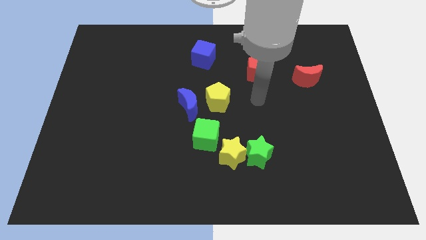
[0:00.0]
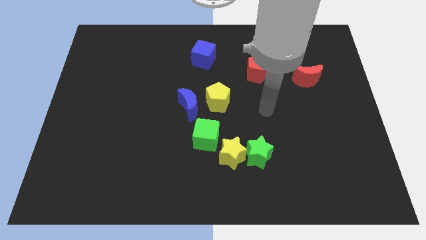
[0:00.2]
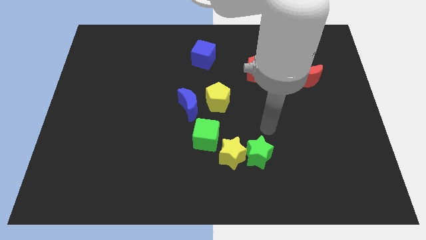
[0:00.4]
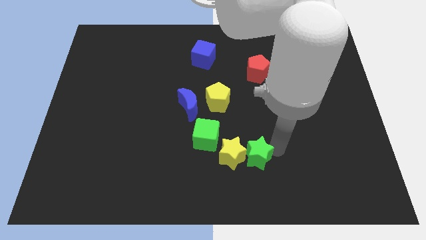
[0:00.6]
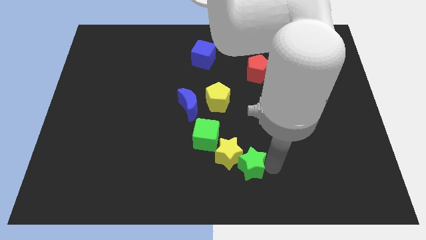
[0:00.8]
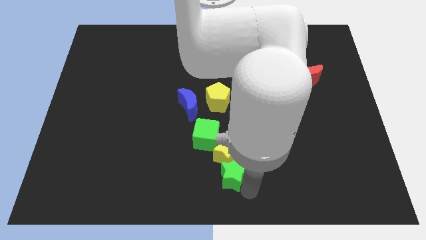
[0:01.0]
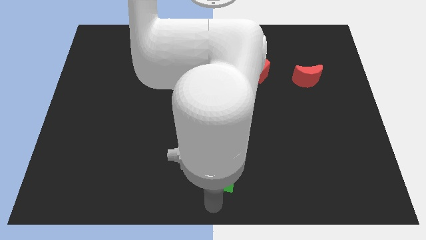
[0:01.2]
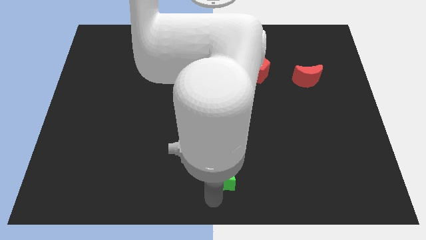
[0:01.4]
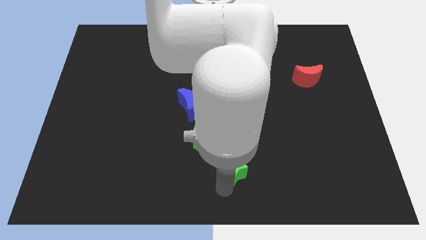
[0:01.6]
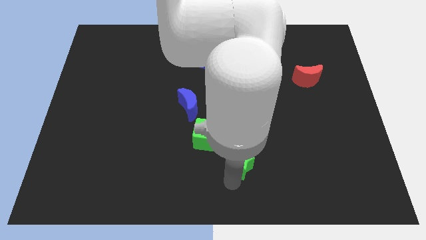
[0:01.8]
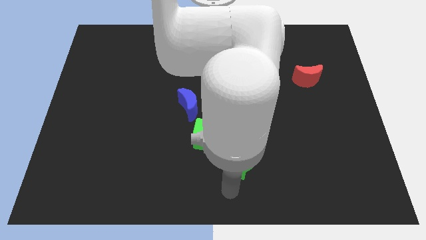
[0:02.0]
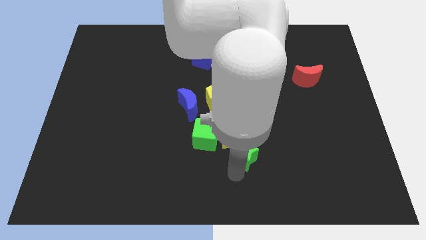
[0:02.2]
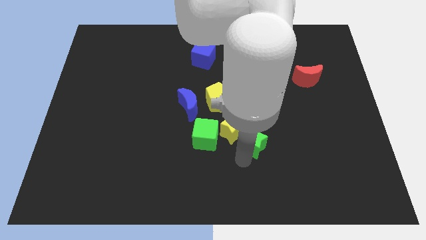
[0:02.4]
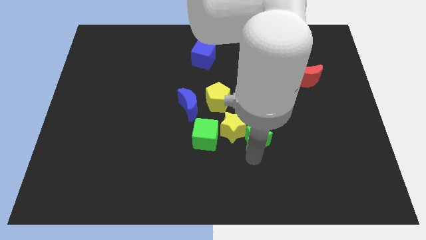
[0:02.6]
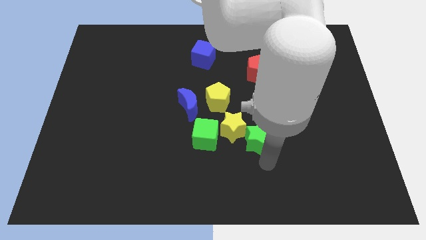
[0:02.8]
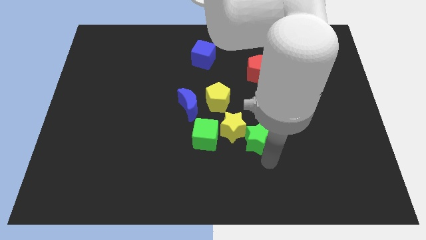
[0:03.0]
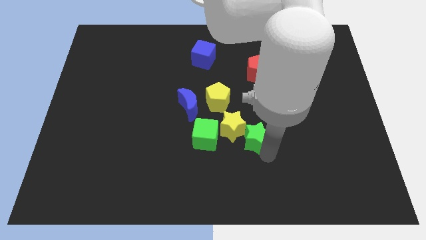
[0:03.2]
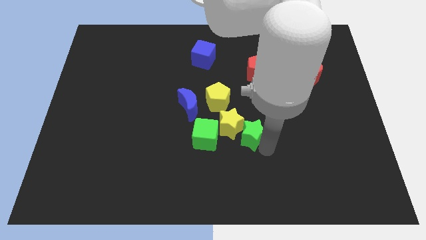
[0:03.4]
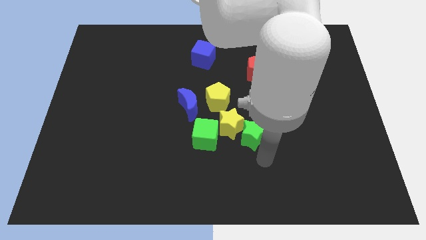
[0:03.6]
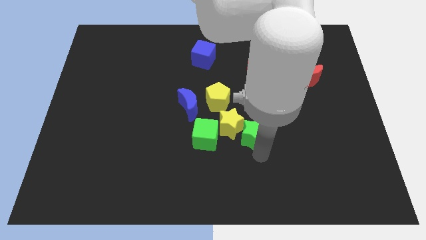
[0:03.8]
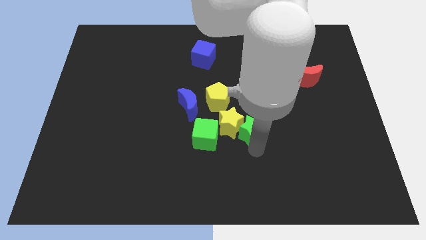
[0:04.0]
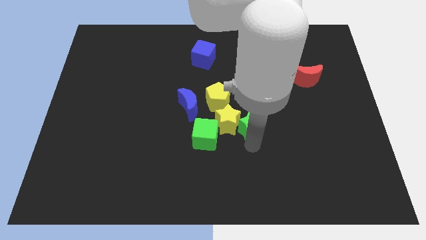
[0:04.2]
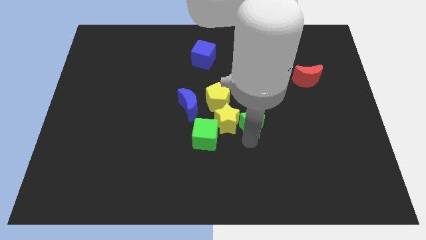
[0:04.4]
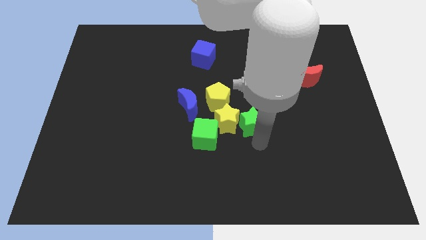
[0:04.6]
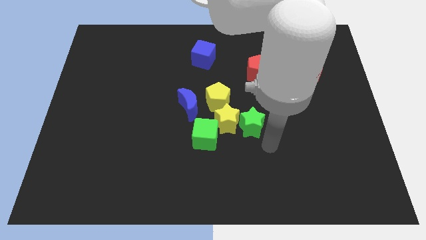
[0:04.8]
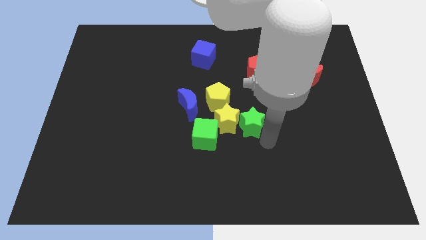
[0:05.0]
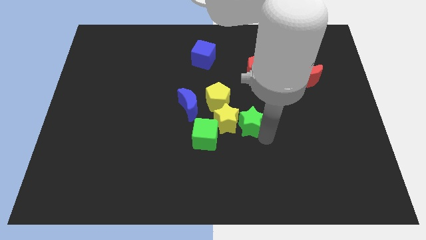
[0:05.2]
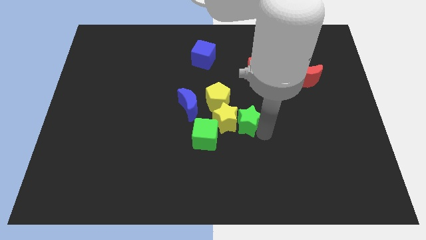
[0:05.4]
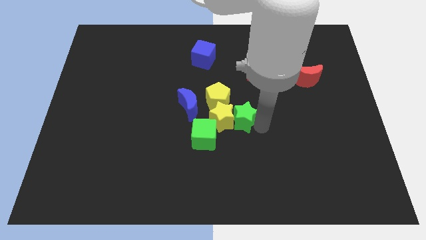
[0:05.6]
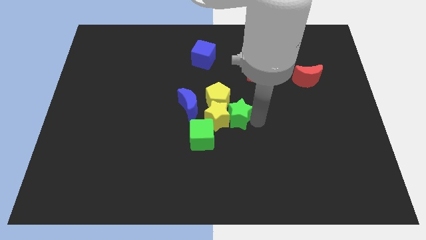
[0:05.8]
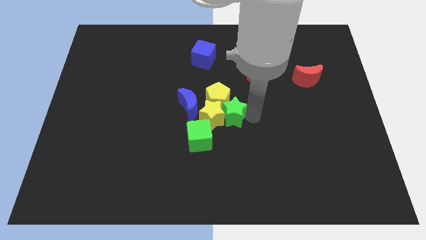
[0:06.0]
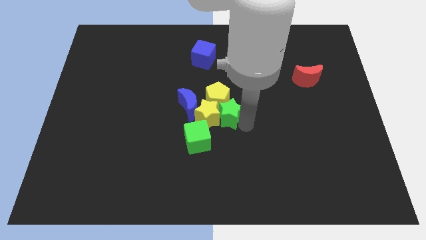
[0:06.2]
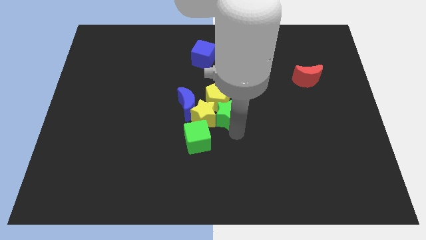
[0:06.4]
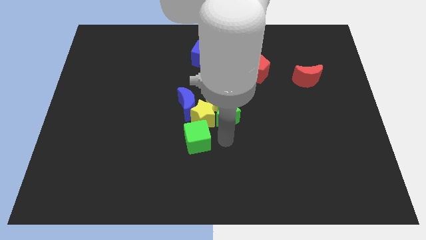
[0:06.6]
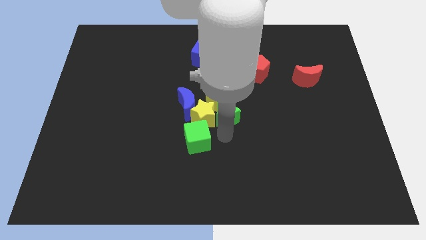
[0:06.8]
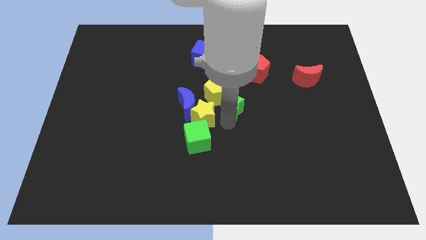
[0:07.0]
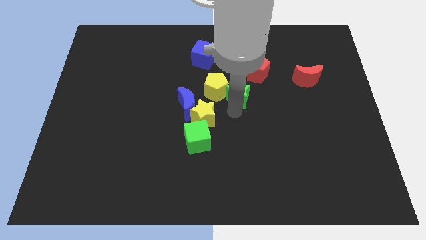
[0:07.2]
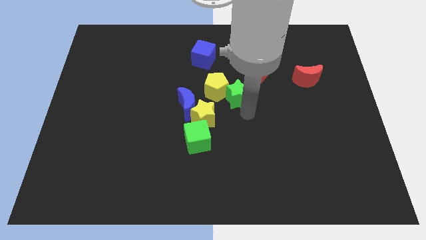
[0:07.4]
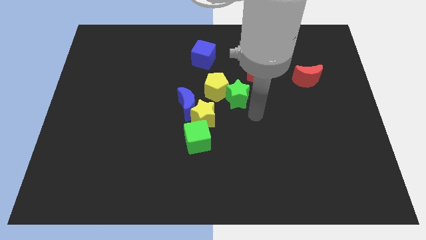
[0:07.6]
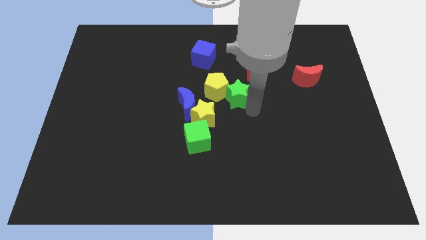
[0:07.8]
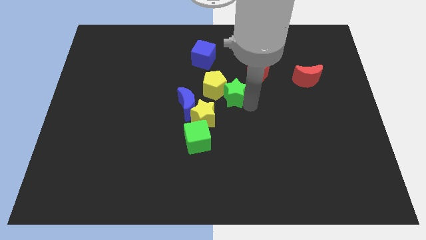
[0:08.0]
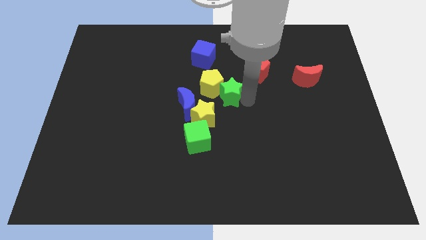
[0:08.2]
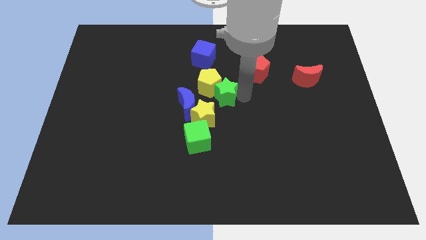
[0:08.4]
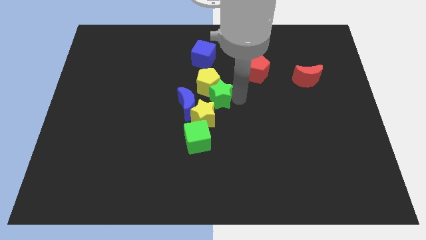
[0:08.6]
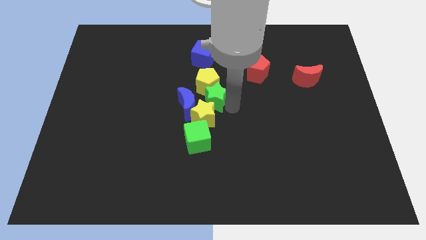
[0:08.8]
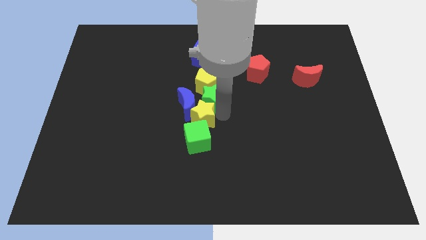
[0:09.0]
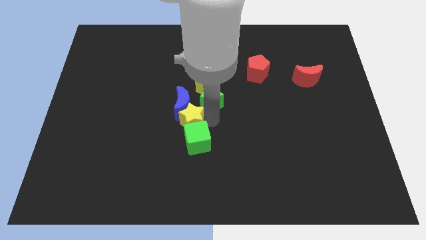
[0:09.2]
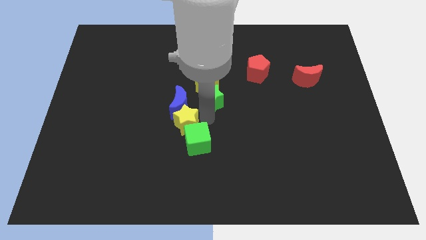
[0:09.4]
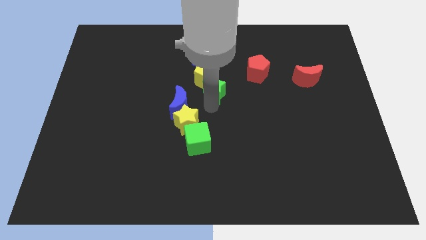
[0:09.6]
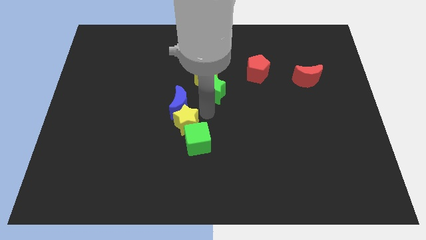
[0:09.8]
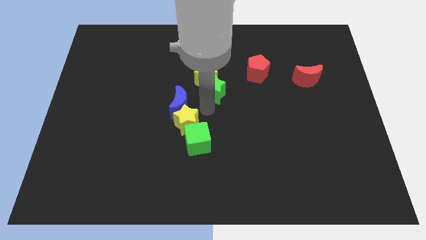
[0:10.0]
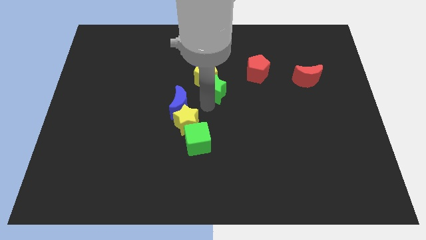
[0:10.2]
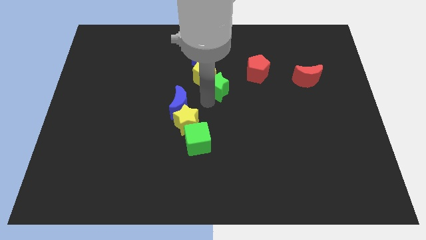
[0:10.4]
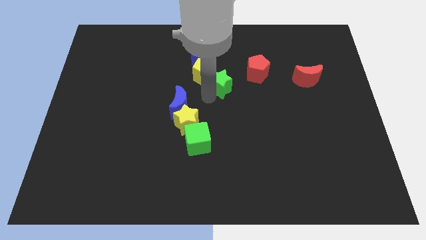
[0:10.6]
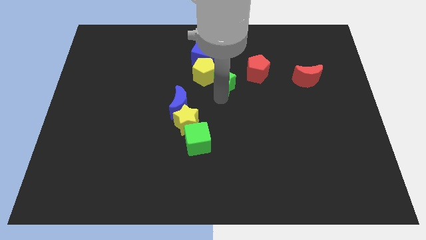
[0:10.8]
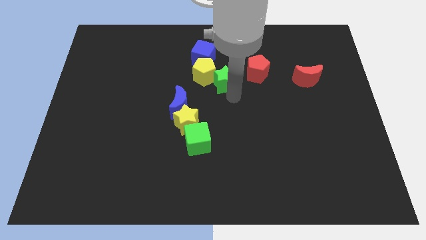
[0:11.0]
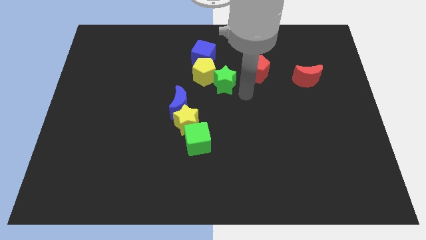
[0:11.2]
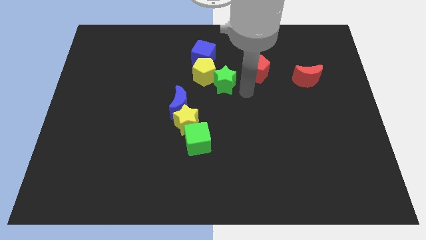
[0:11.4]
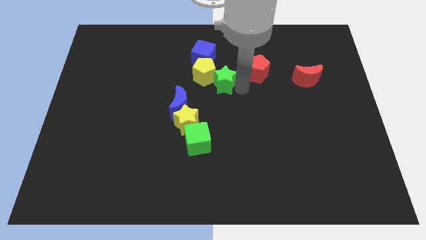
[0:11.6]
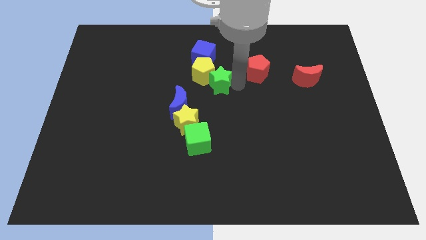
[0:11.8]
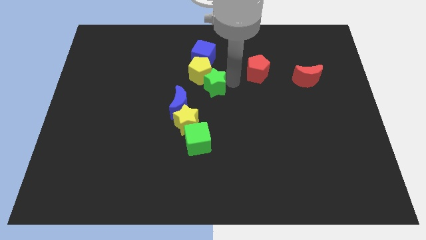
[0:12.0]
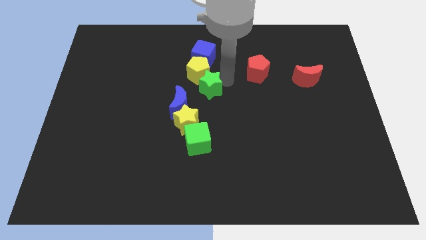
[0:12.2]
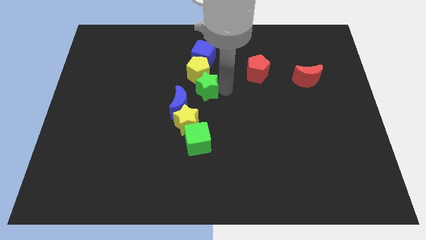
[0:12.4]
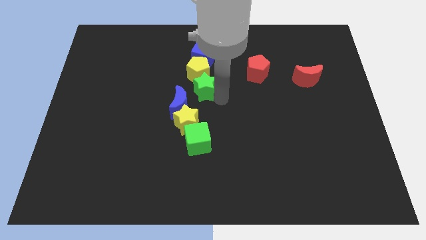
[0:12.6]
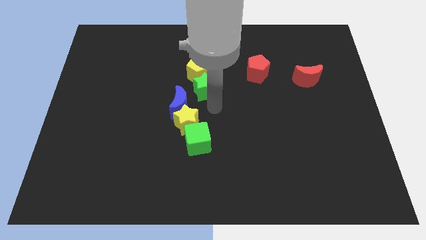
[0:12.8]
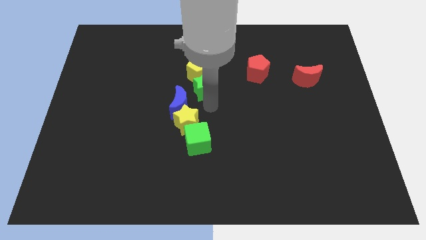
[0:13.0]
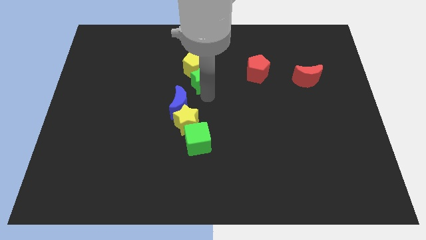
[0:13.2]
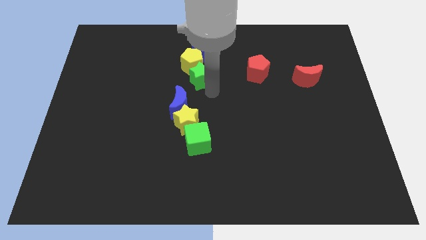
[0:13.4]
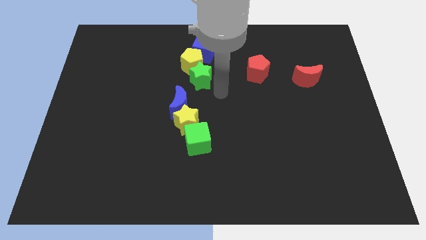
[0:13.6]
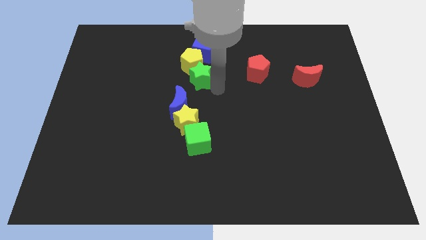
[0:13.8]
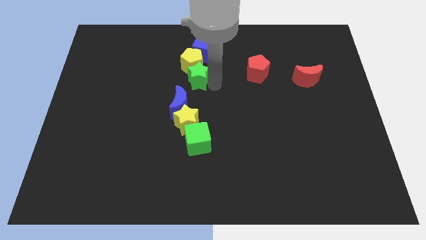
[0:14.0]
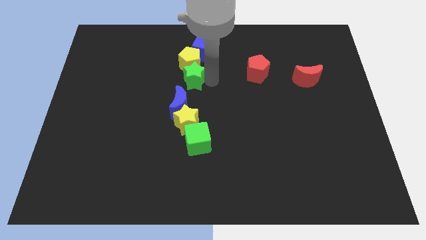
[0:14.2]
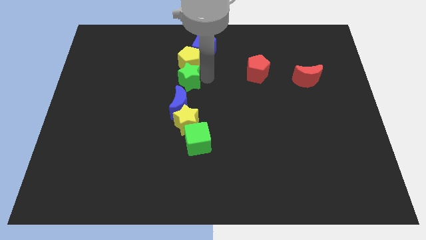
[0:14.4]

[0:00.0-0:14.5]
put the green star to the bottom left of the blue cube

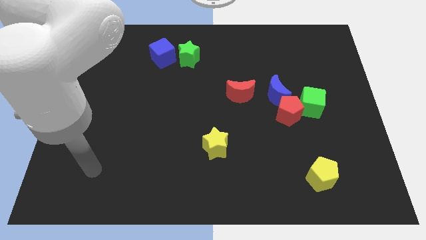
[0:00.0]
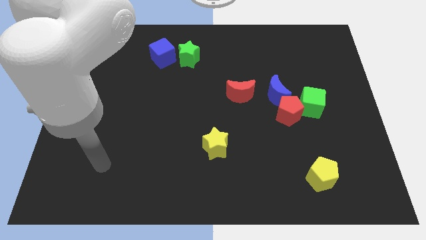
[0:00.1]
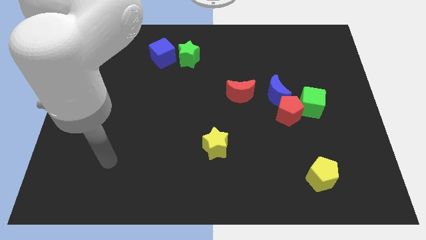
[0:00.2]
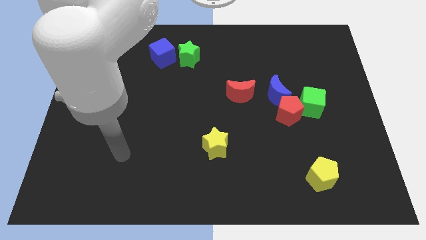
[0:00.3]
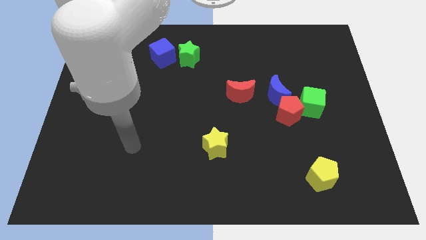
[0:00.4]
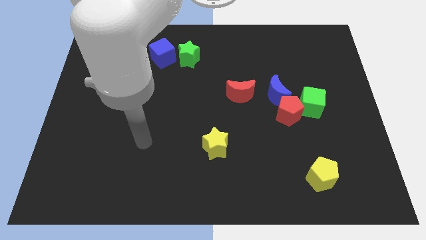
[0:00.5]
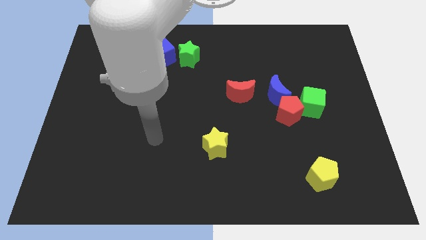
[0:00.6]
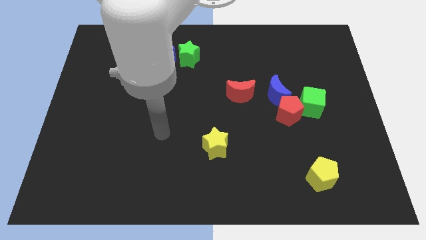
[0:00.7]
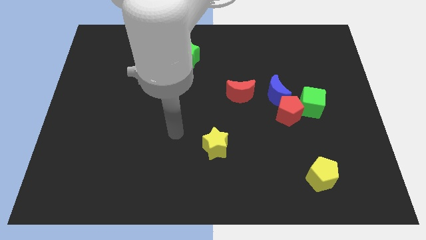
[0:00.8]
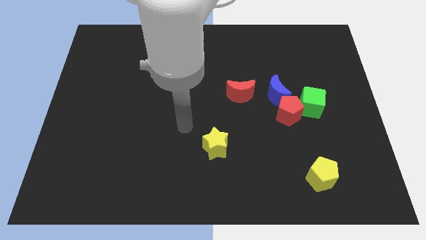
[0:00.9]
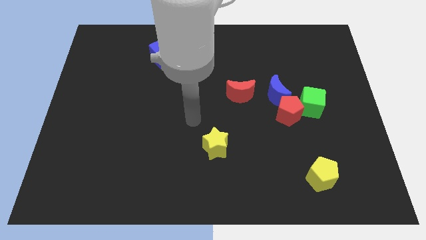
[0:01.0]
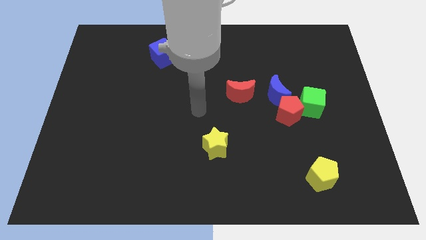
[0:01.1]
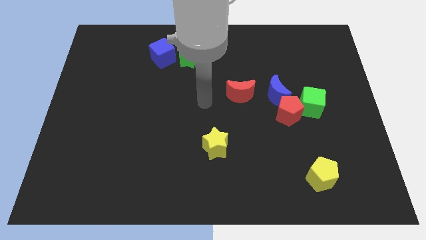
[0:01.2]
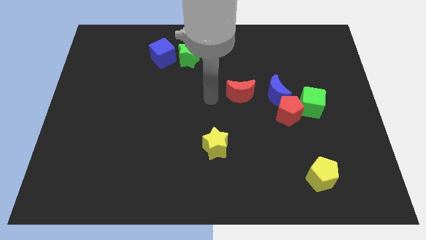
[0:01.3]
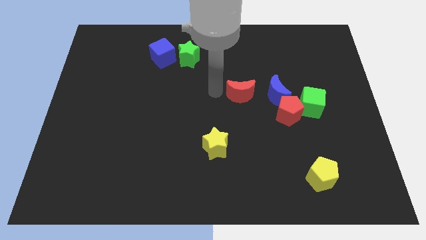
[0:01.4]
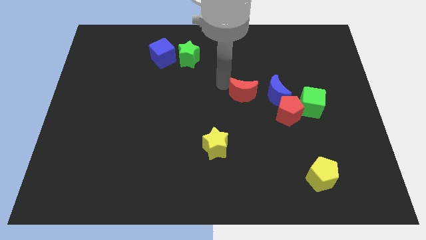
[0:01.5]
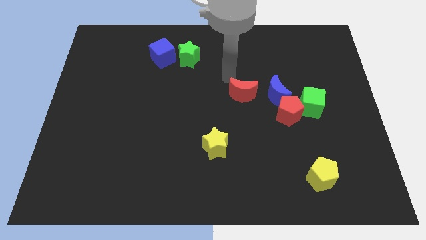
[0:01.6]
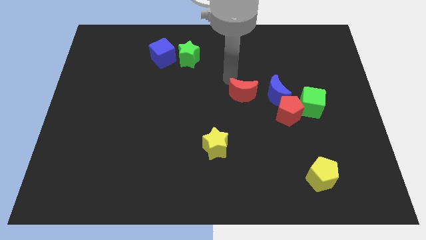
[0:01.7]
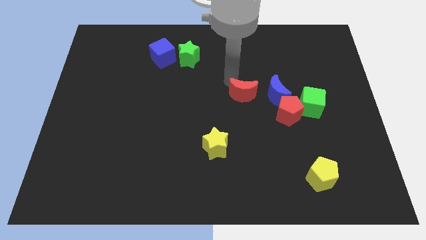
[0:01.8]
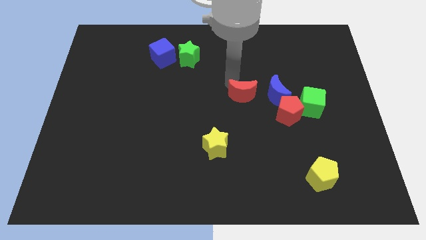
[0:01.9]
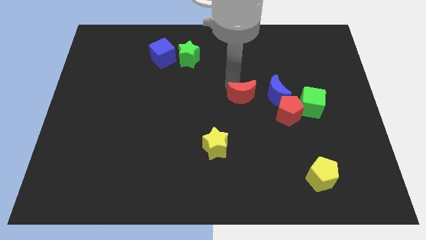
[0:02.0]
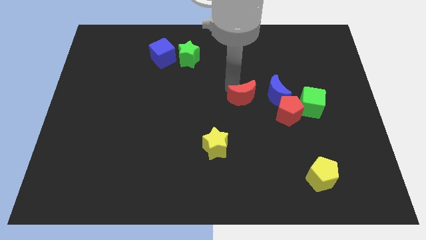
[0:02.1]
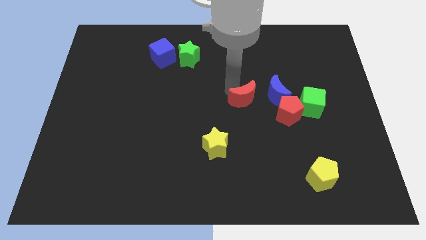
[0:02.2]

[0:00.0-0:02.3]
put the red moon diagonally down and to the left of the blue moon
